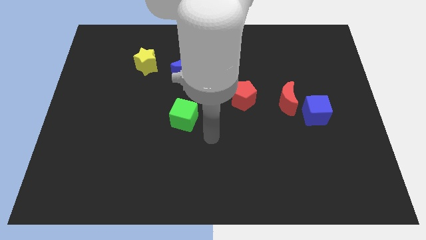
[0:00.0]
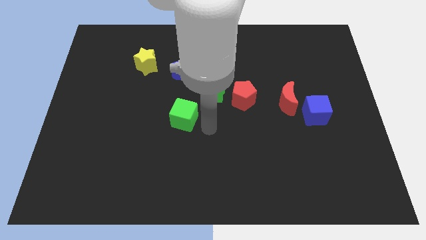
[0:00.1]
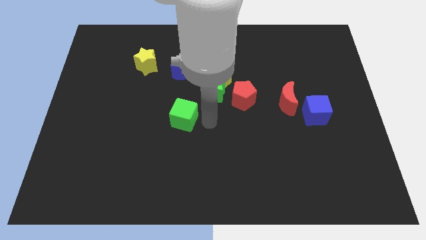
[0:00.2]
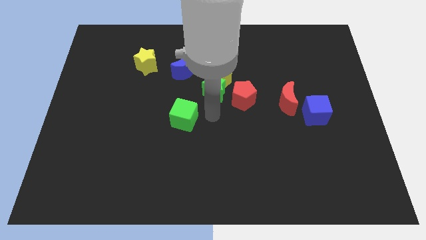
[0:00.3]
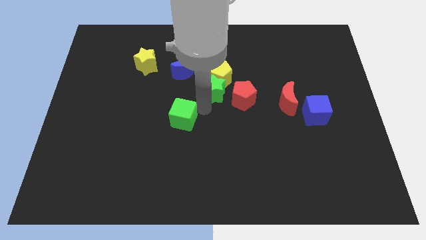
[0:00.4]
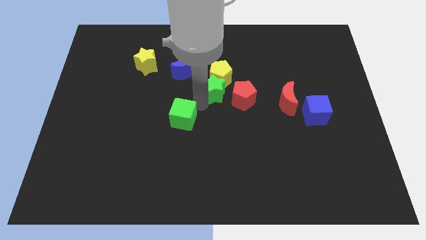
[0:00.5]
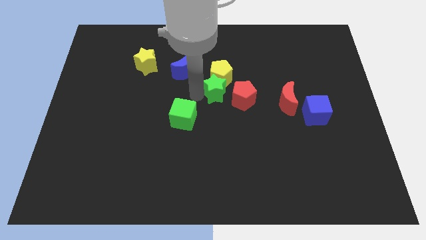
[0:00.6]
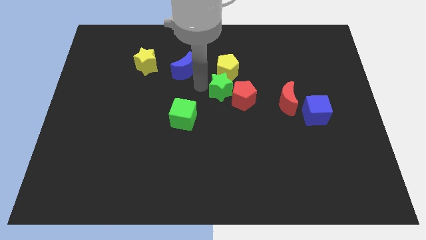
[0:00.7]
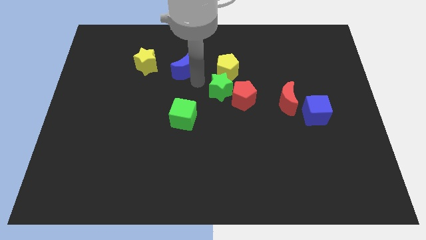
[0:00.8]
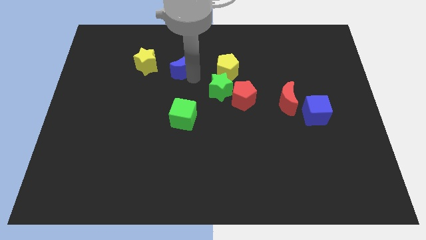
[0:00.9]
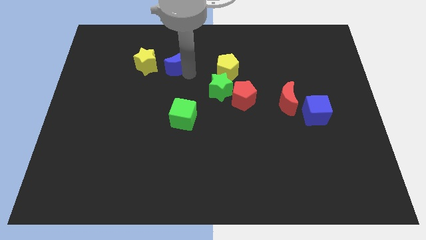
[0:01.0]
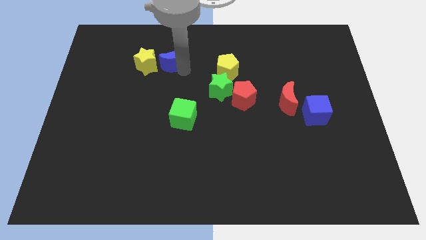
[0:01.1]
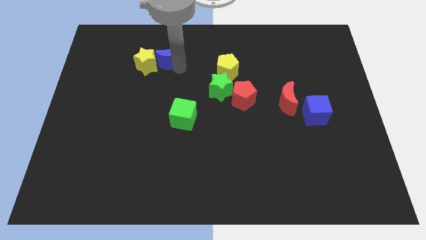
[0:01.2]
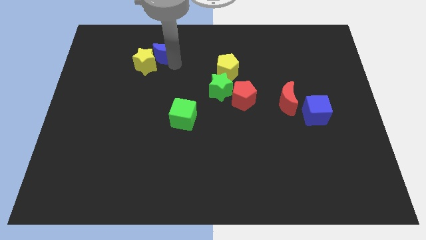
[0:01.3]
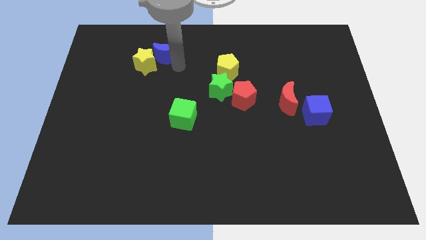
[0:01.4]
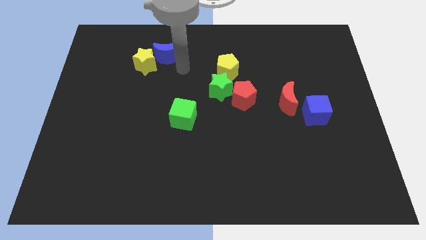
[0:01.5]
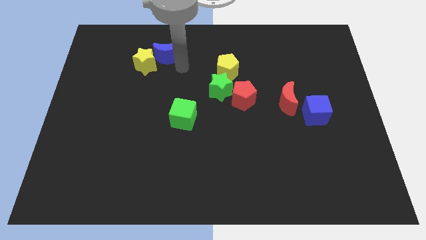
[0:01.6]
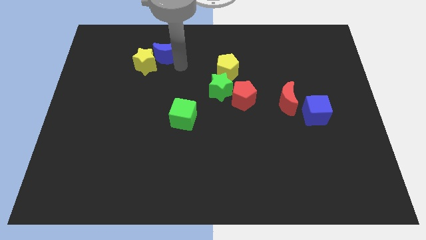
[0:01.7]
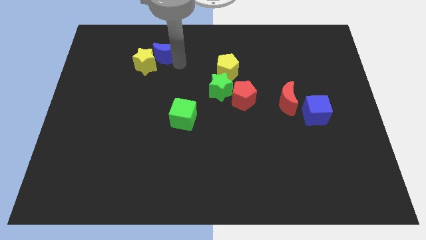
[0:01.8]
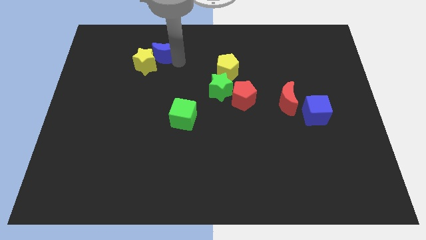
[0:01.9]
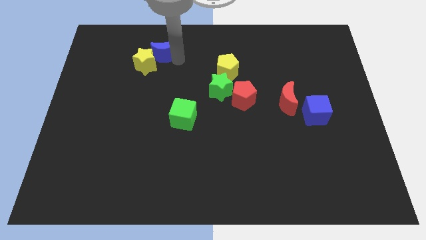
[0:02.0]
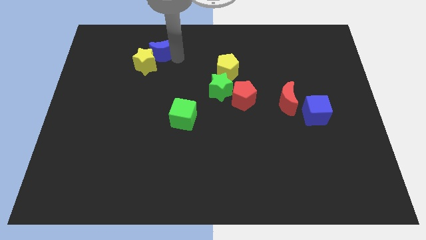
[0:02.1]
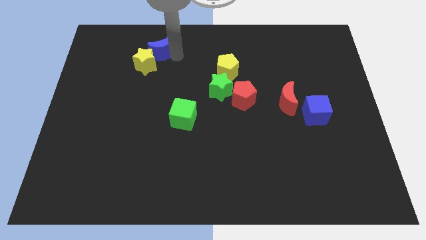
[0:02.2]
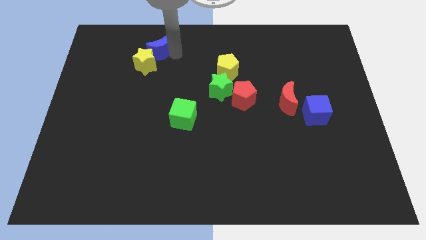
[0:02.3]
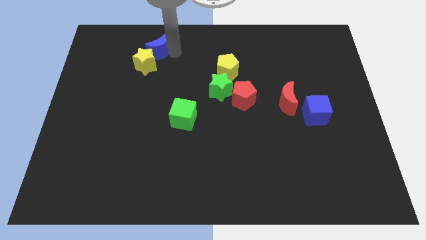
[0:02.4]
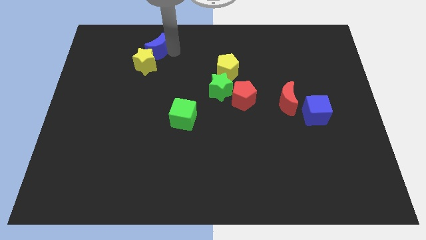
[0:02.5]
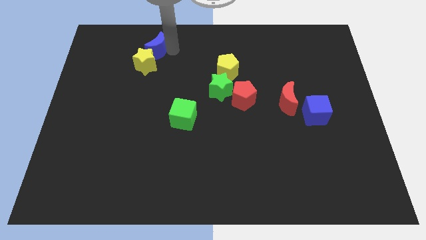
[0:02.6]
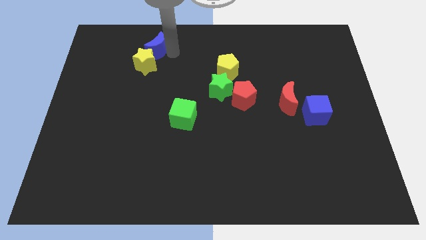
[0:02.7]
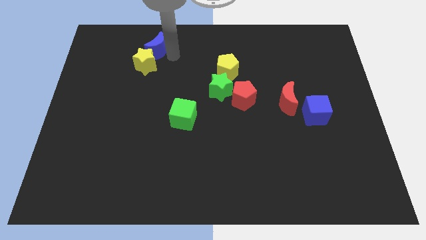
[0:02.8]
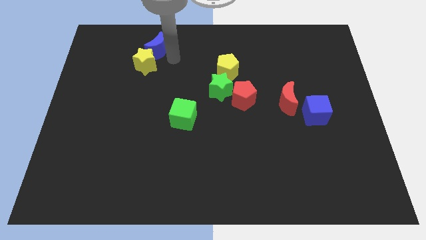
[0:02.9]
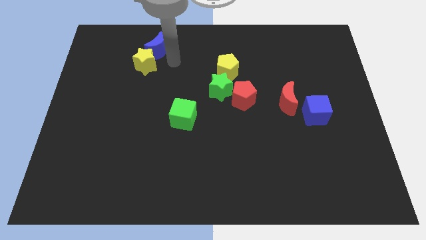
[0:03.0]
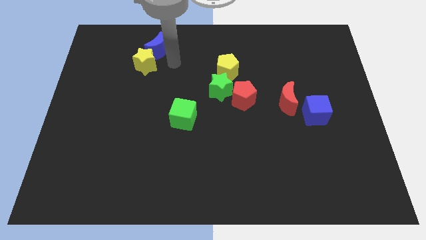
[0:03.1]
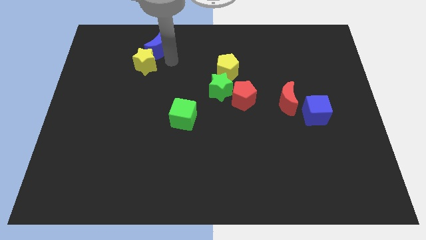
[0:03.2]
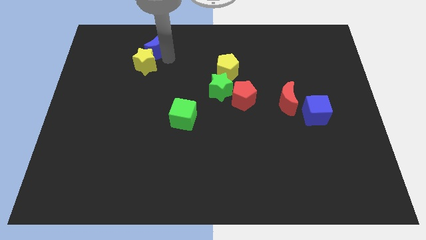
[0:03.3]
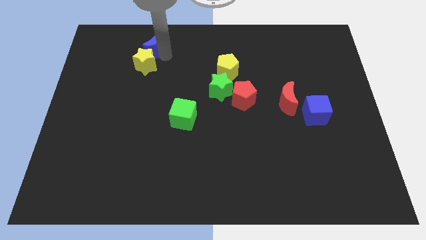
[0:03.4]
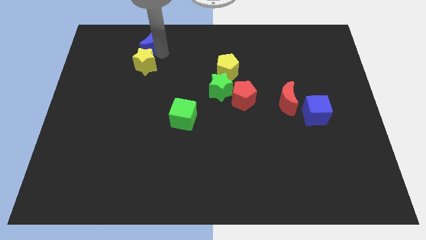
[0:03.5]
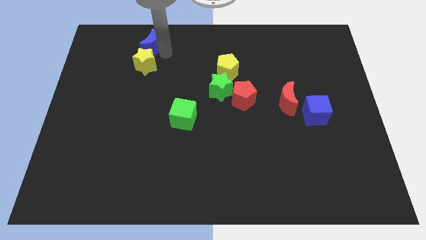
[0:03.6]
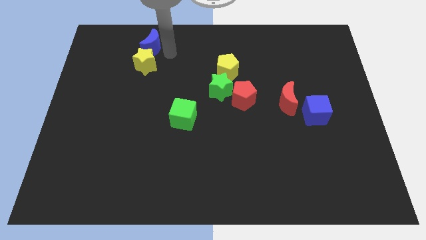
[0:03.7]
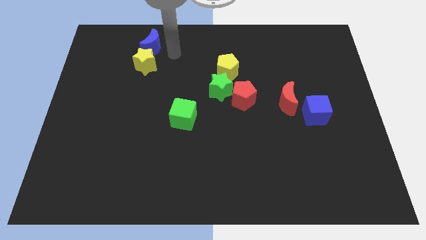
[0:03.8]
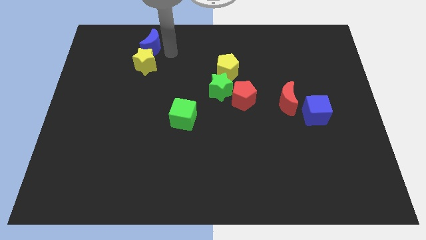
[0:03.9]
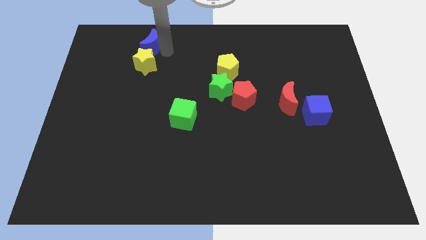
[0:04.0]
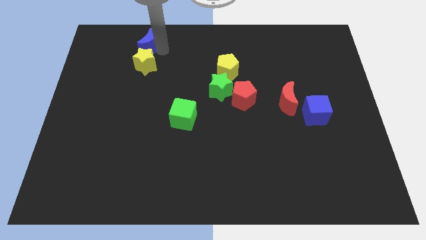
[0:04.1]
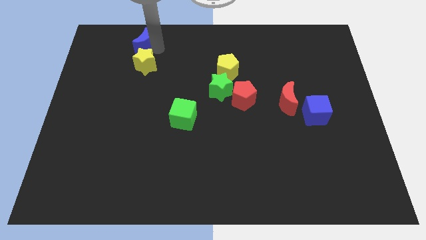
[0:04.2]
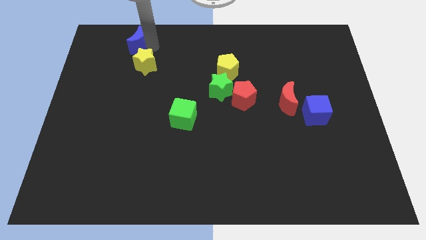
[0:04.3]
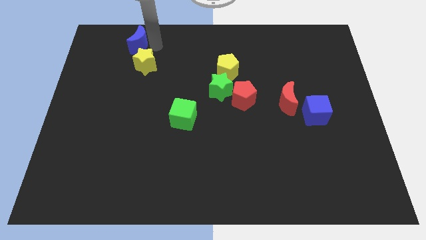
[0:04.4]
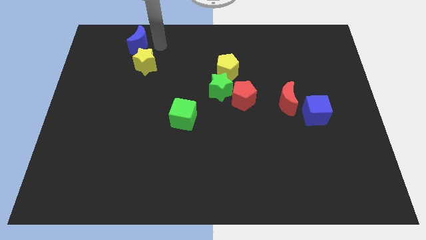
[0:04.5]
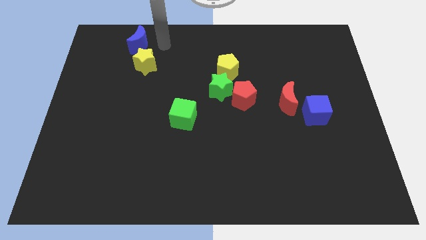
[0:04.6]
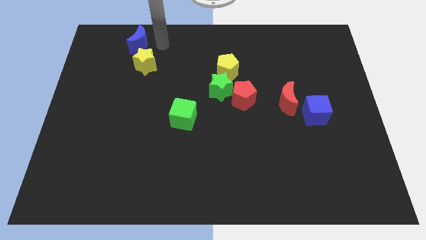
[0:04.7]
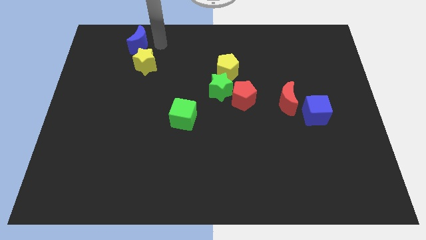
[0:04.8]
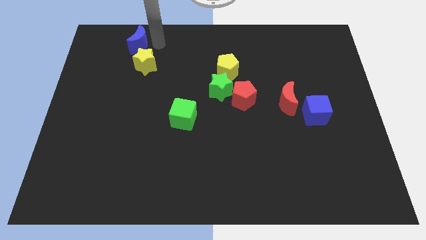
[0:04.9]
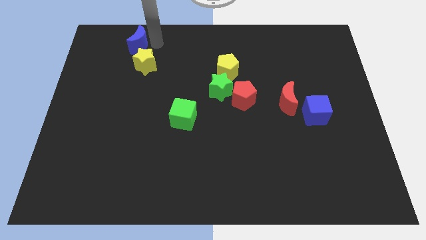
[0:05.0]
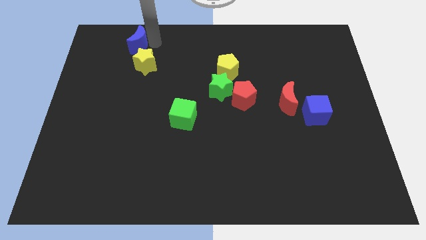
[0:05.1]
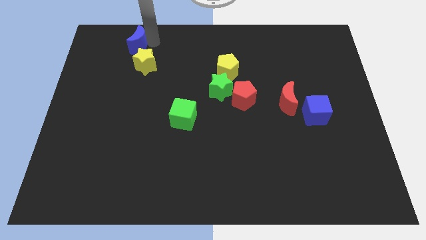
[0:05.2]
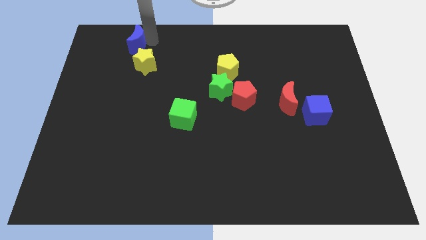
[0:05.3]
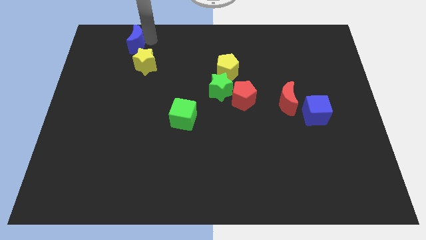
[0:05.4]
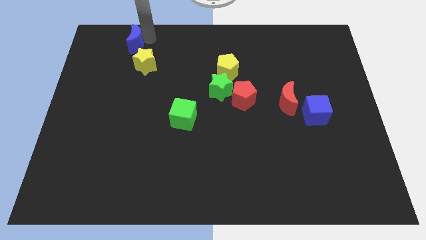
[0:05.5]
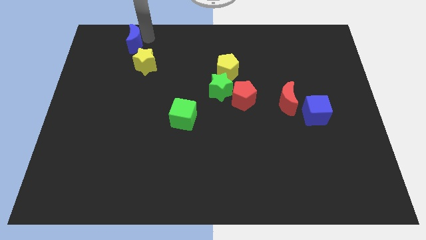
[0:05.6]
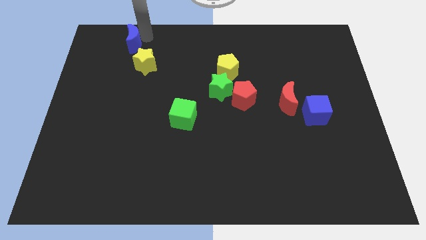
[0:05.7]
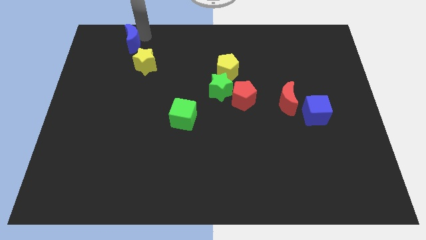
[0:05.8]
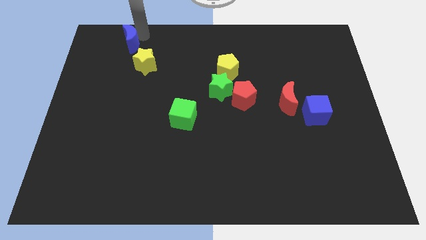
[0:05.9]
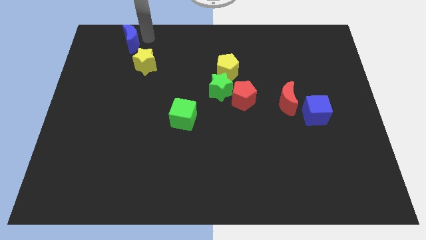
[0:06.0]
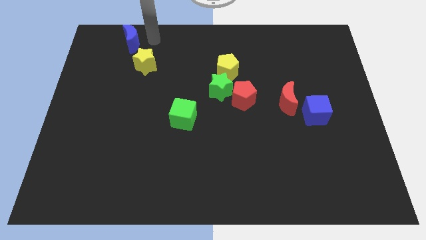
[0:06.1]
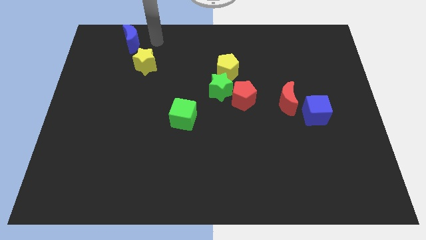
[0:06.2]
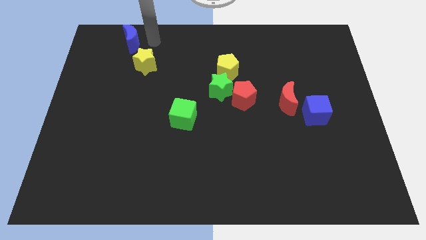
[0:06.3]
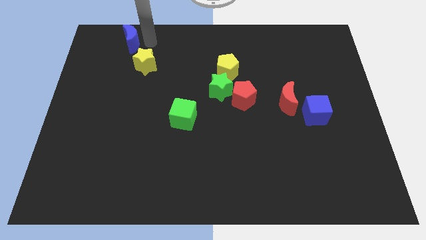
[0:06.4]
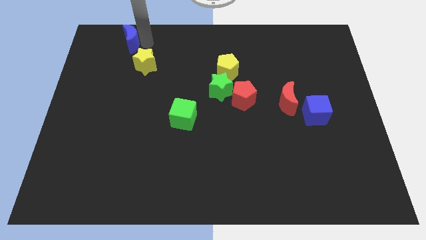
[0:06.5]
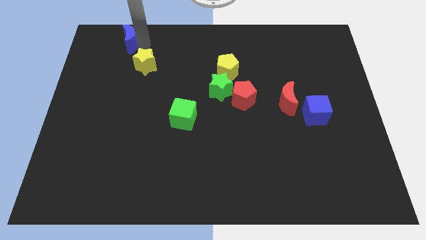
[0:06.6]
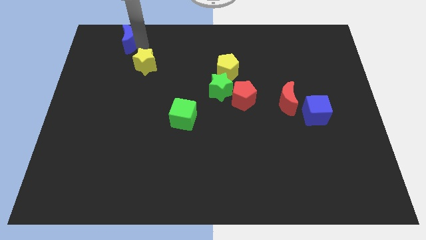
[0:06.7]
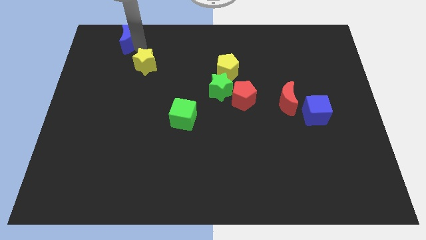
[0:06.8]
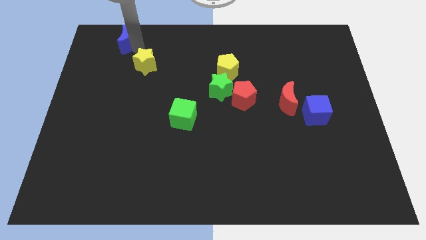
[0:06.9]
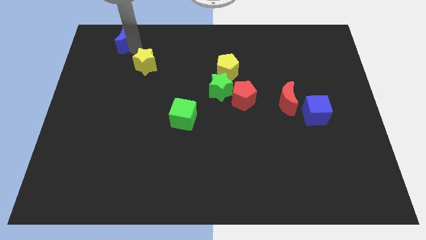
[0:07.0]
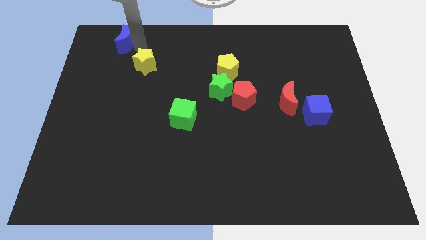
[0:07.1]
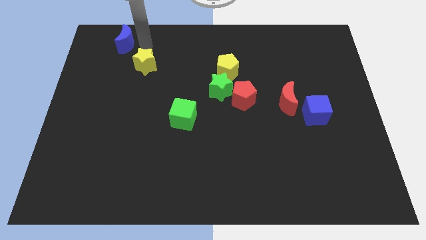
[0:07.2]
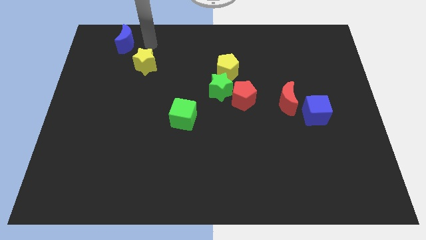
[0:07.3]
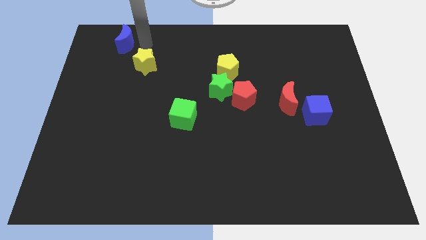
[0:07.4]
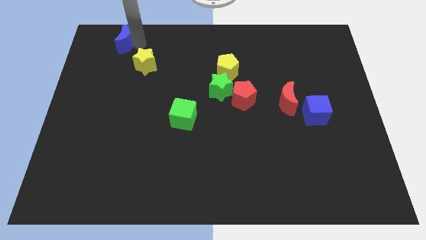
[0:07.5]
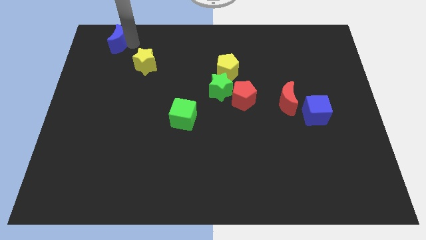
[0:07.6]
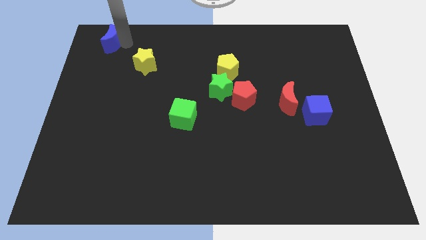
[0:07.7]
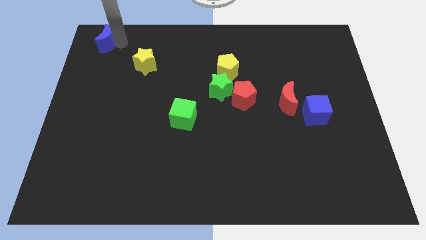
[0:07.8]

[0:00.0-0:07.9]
put the blue moon to the upper left corner
